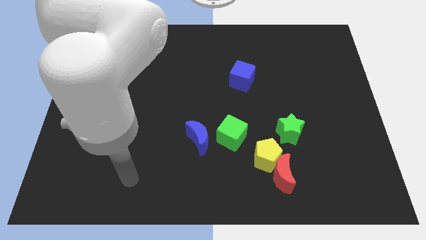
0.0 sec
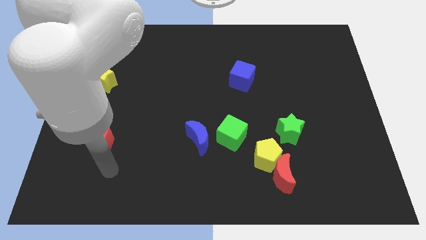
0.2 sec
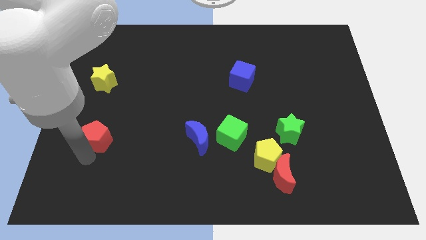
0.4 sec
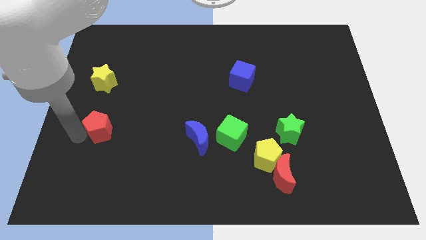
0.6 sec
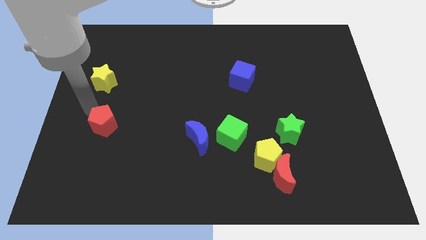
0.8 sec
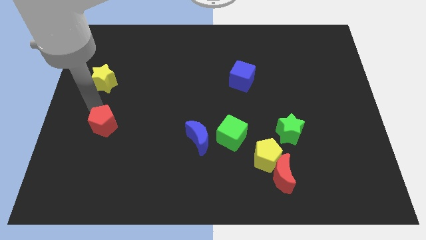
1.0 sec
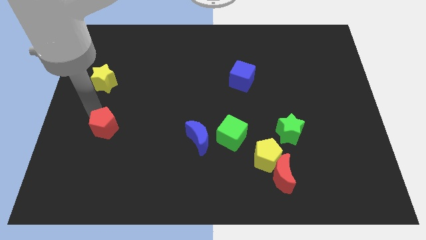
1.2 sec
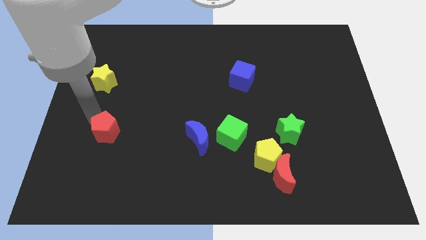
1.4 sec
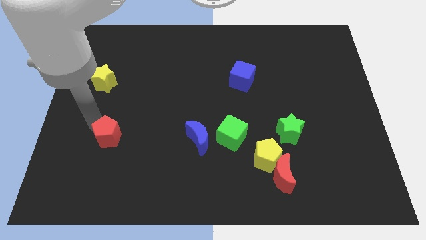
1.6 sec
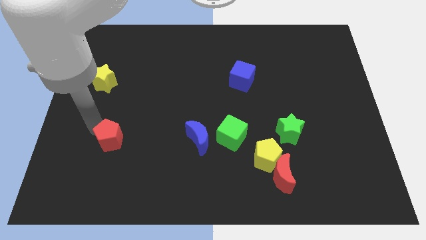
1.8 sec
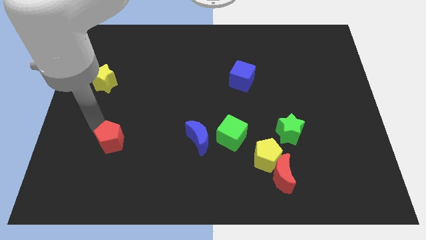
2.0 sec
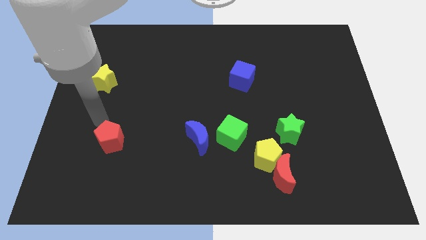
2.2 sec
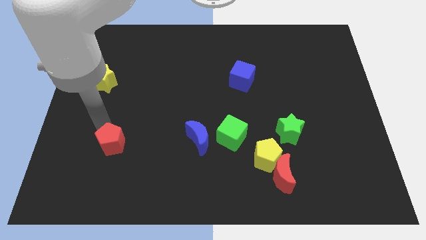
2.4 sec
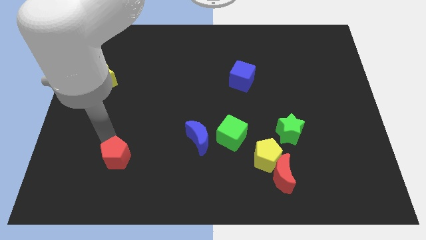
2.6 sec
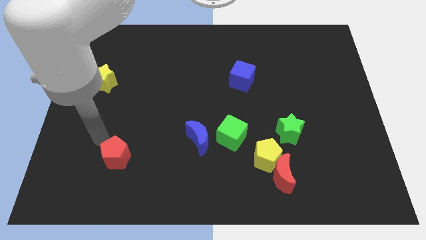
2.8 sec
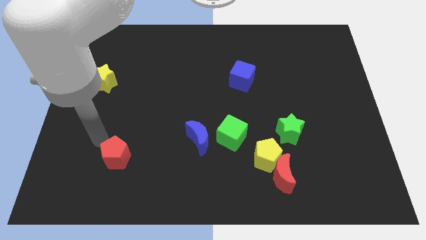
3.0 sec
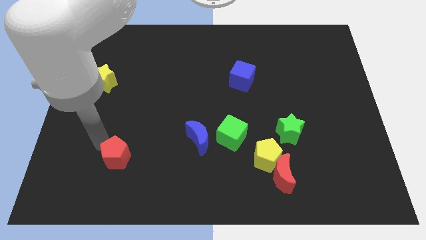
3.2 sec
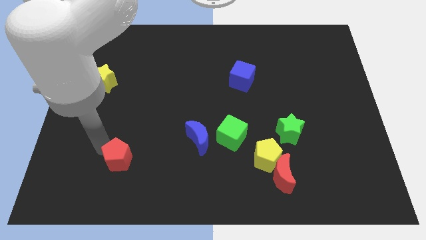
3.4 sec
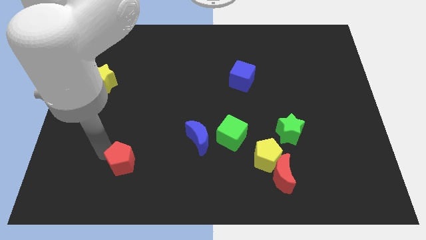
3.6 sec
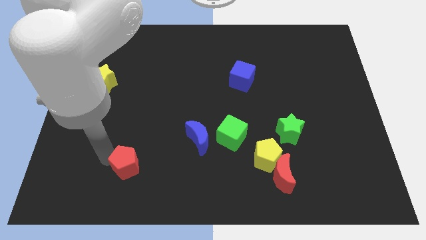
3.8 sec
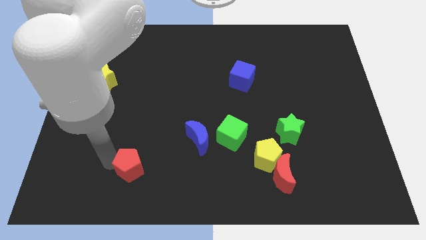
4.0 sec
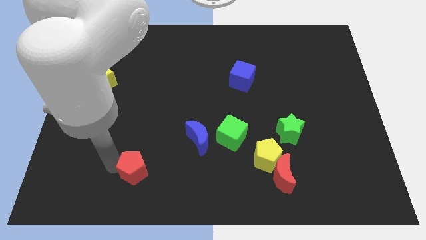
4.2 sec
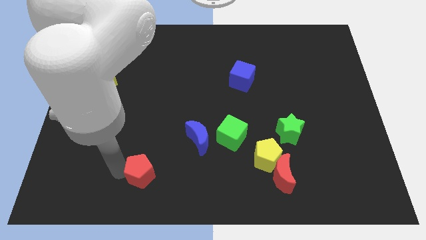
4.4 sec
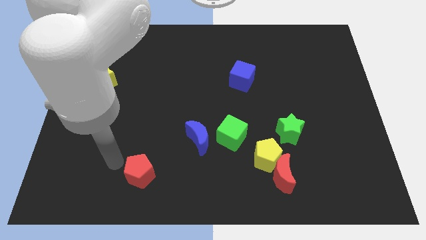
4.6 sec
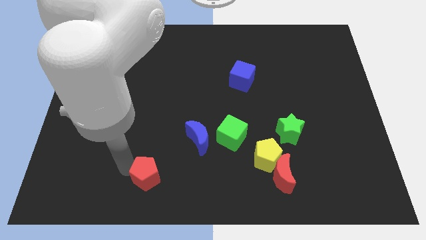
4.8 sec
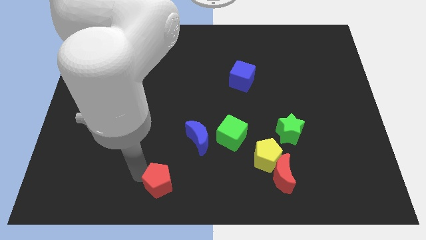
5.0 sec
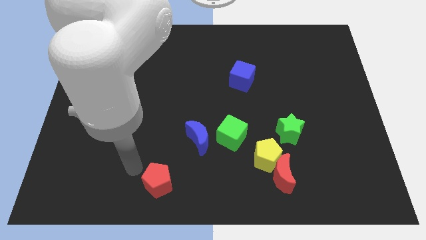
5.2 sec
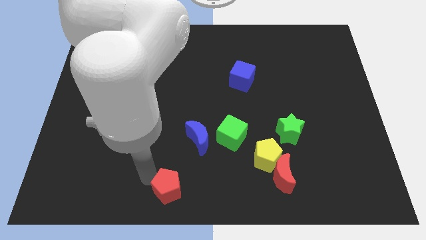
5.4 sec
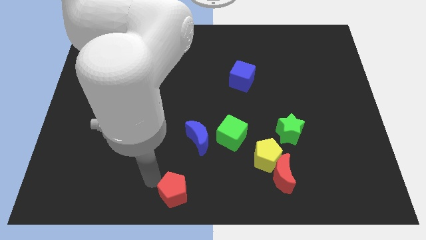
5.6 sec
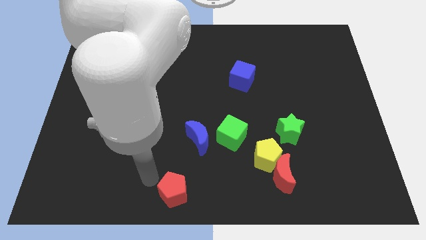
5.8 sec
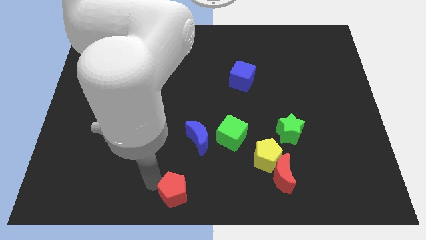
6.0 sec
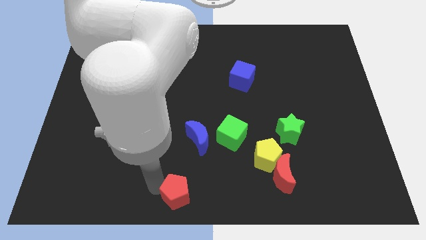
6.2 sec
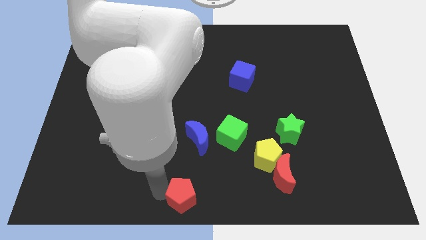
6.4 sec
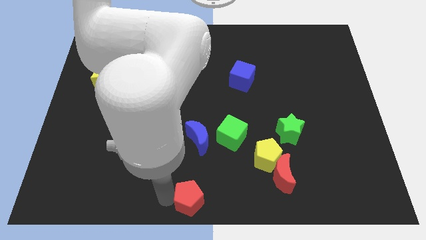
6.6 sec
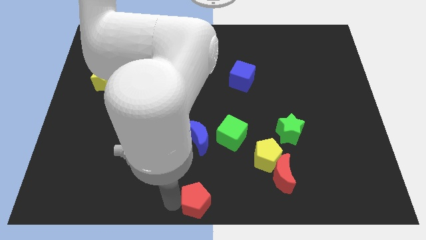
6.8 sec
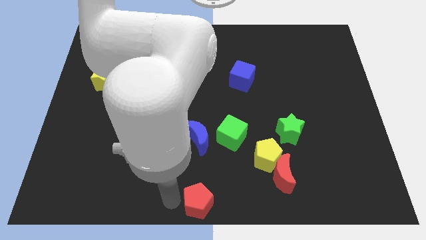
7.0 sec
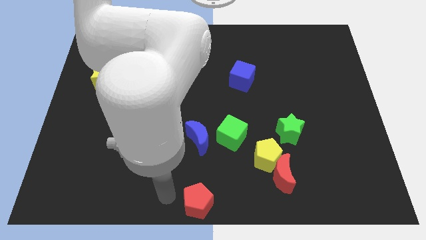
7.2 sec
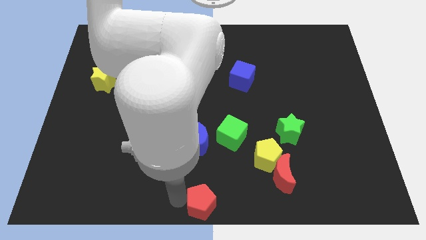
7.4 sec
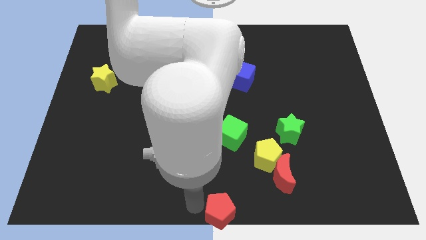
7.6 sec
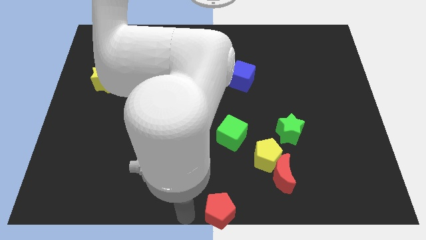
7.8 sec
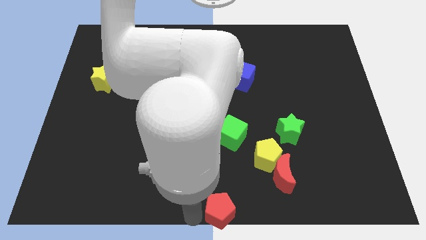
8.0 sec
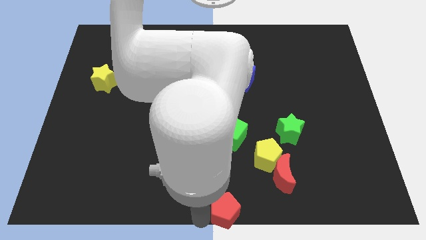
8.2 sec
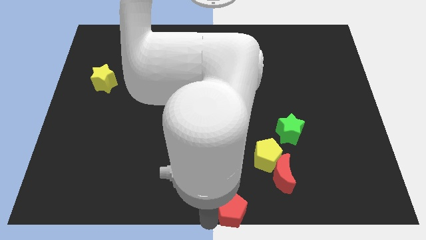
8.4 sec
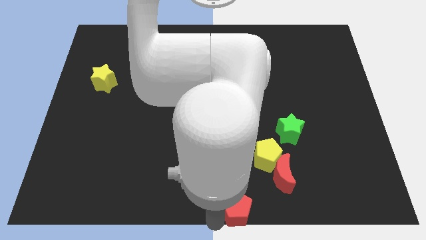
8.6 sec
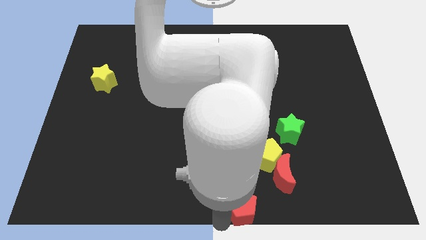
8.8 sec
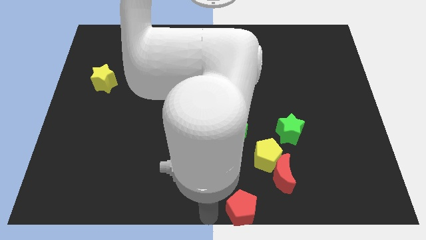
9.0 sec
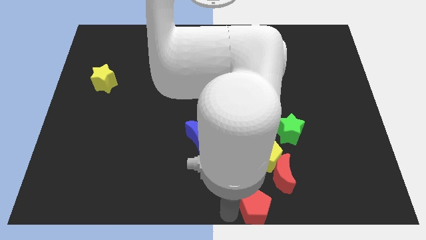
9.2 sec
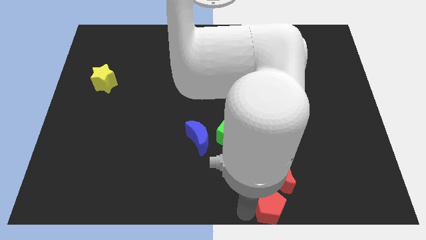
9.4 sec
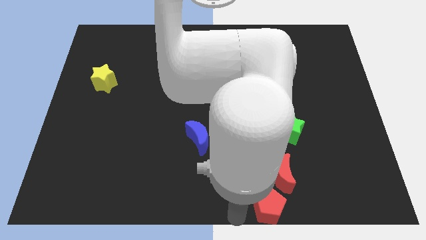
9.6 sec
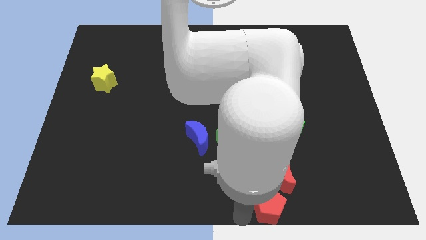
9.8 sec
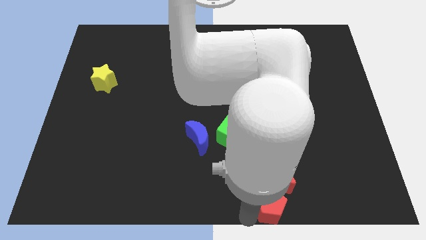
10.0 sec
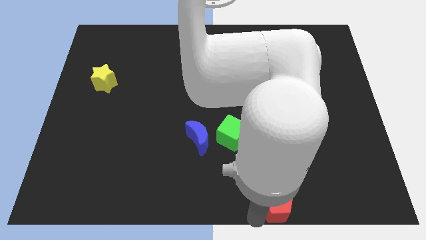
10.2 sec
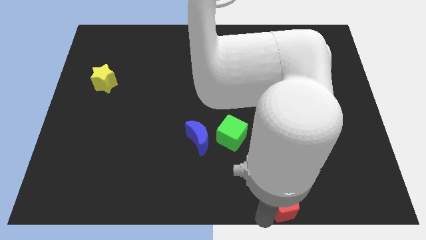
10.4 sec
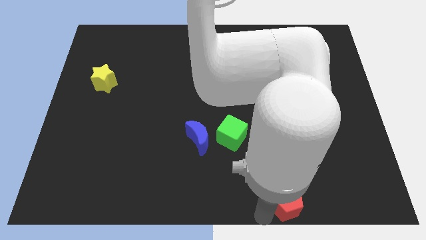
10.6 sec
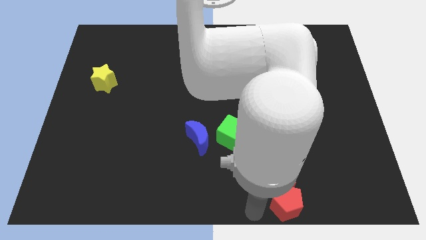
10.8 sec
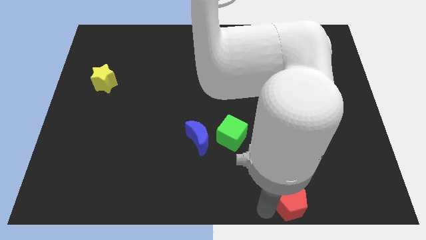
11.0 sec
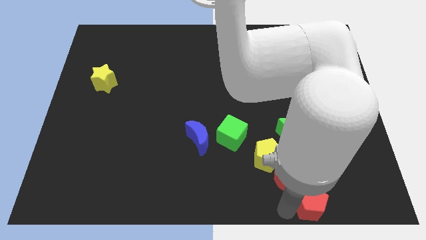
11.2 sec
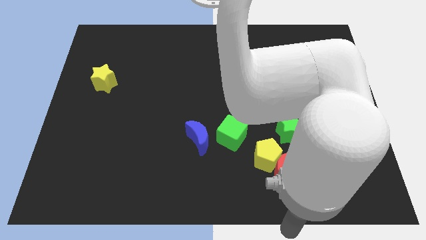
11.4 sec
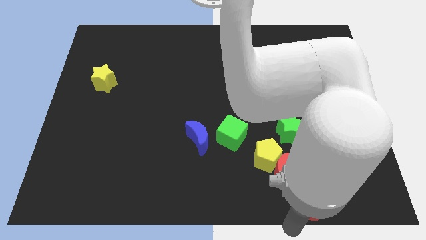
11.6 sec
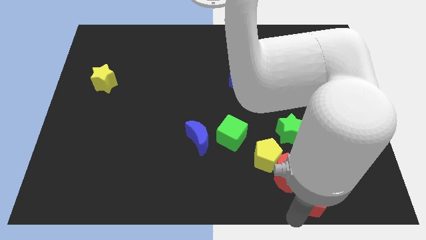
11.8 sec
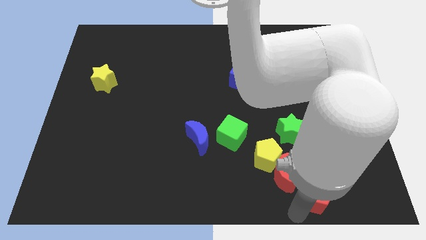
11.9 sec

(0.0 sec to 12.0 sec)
put the red pentagon to the right of the red moon

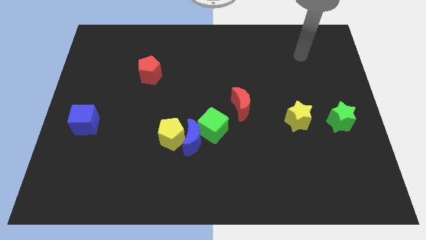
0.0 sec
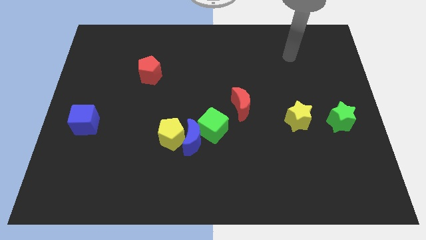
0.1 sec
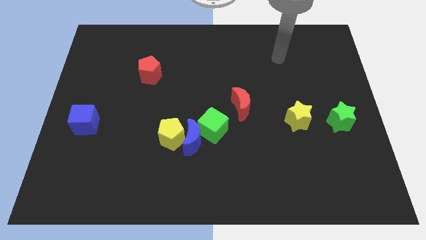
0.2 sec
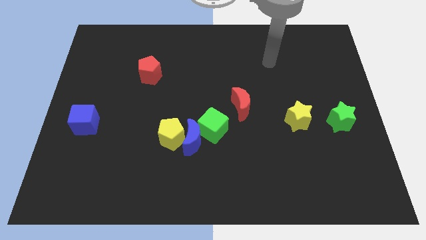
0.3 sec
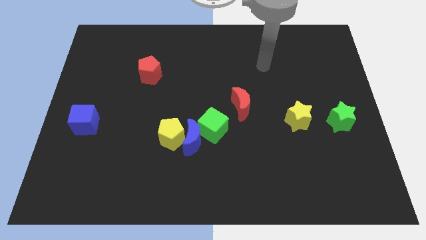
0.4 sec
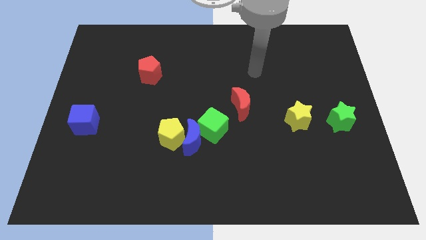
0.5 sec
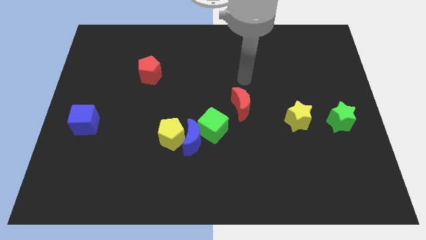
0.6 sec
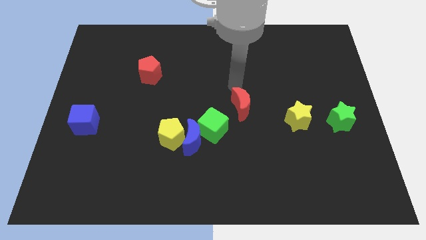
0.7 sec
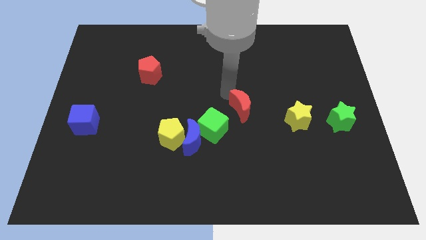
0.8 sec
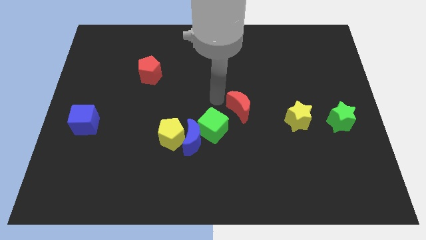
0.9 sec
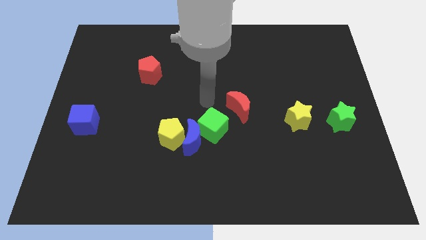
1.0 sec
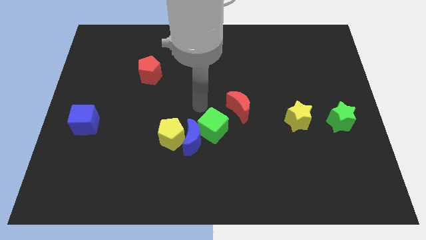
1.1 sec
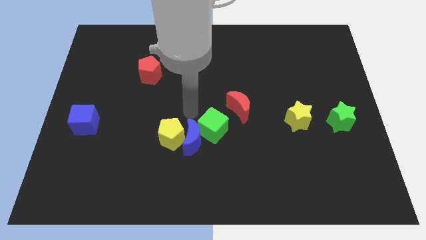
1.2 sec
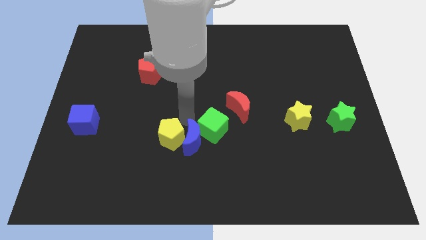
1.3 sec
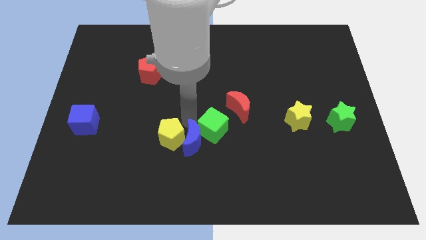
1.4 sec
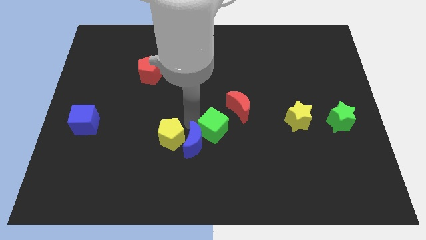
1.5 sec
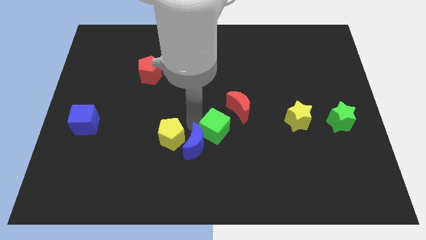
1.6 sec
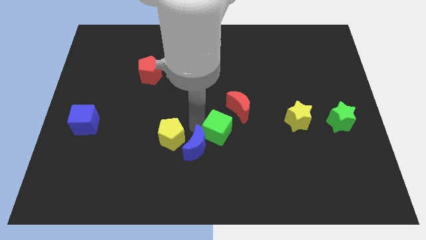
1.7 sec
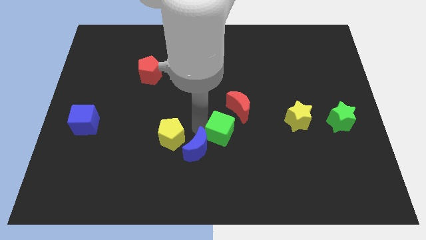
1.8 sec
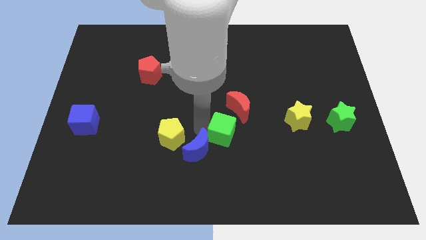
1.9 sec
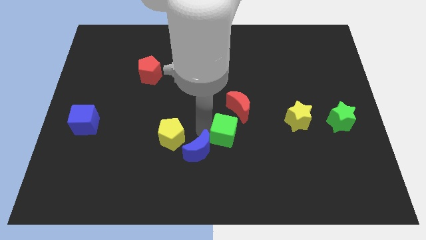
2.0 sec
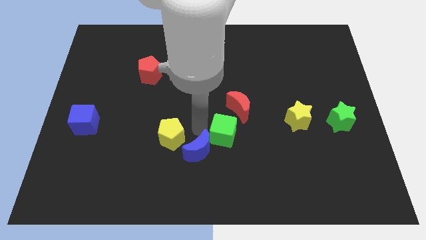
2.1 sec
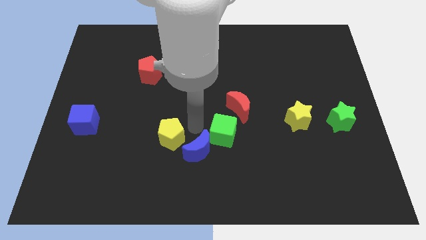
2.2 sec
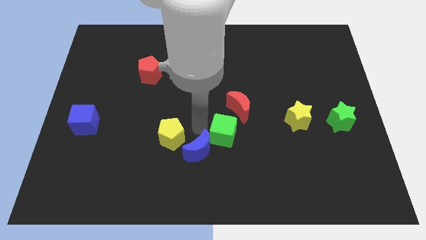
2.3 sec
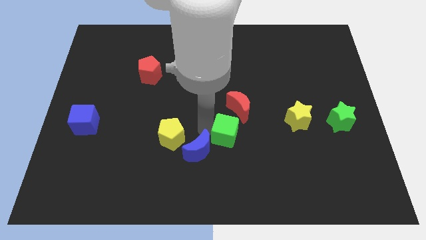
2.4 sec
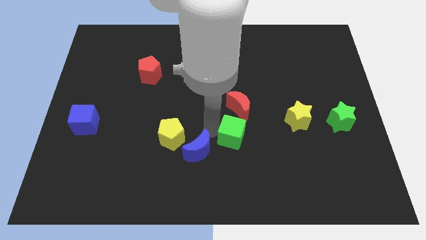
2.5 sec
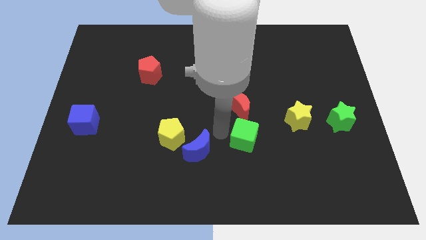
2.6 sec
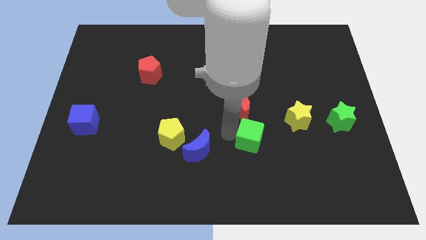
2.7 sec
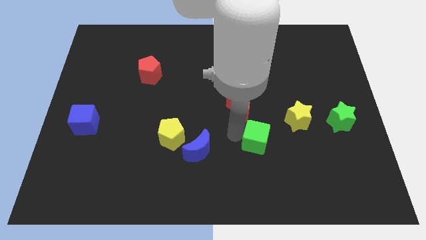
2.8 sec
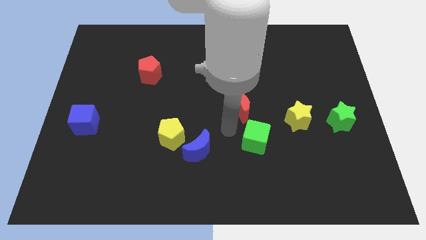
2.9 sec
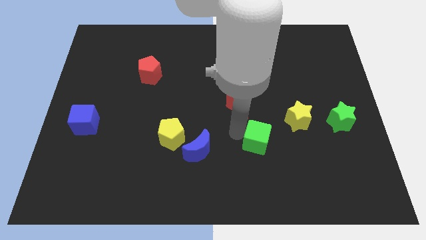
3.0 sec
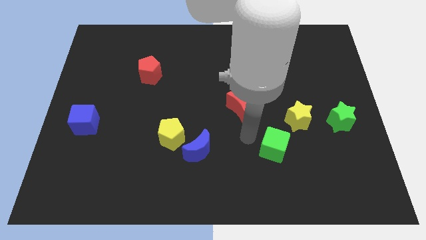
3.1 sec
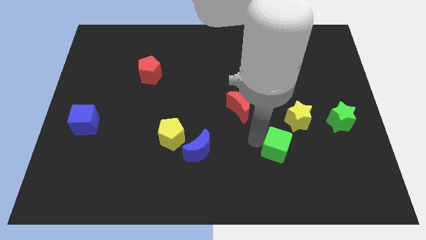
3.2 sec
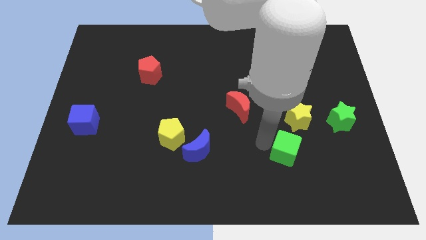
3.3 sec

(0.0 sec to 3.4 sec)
move the green cube below the yellow star
